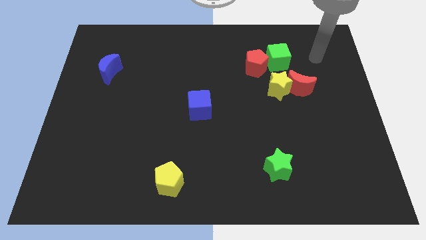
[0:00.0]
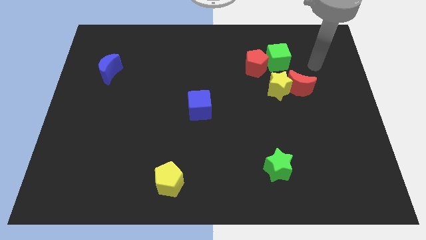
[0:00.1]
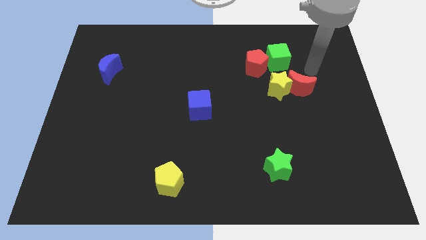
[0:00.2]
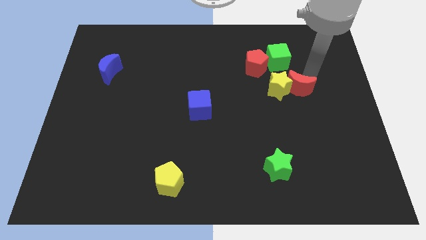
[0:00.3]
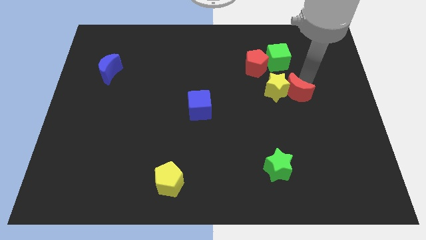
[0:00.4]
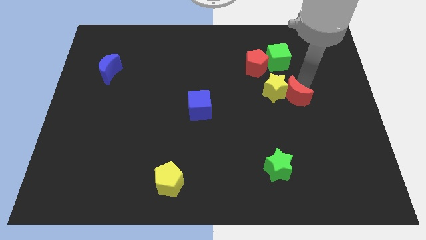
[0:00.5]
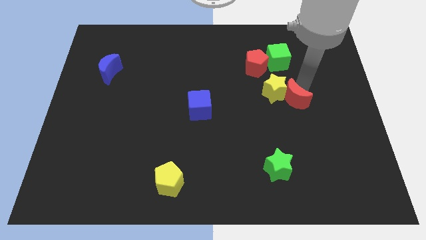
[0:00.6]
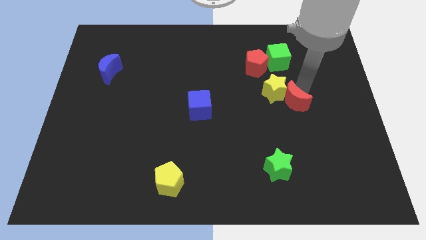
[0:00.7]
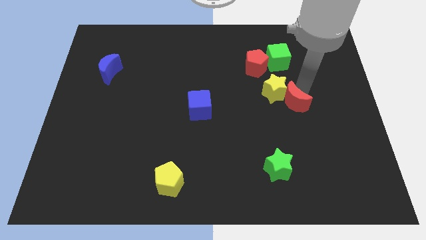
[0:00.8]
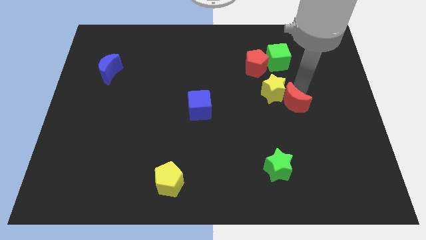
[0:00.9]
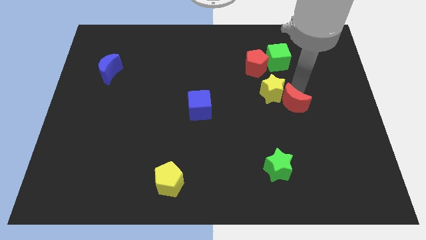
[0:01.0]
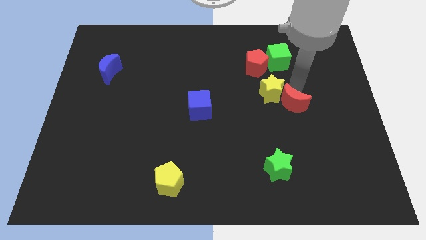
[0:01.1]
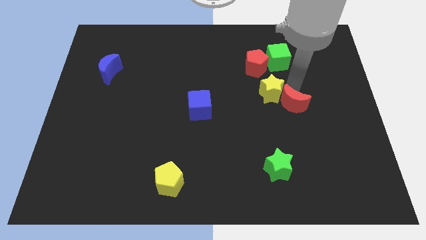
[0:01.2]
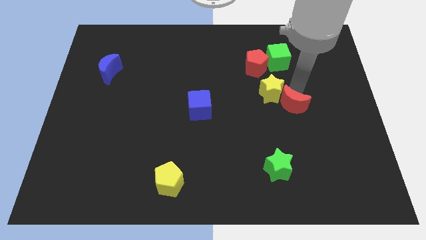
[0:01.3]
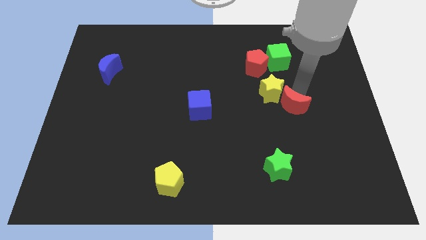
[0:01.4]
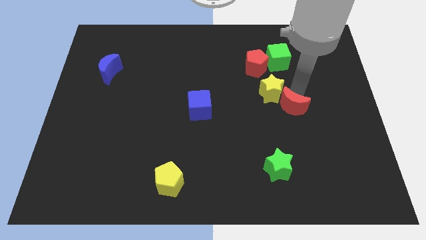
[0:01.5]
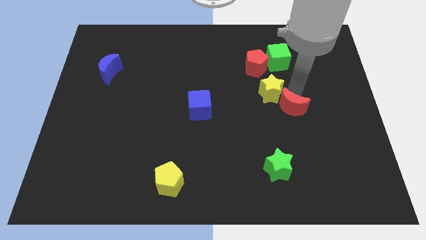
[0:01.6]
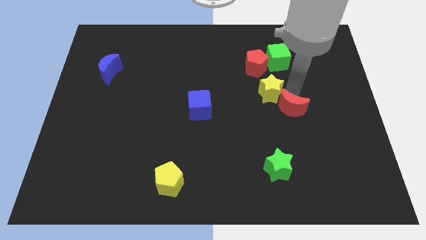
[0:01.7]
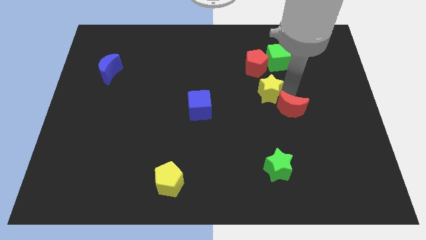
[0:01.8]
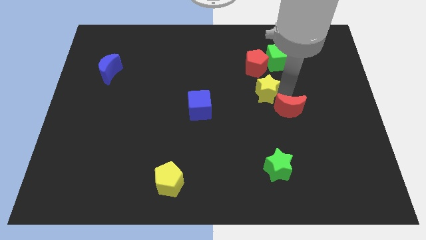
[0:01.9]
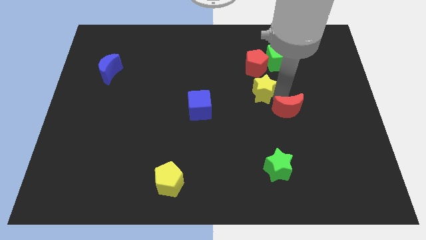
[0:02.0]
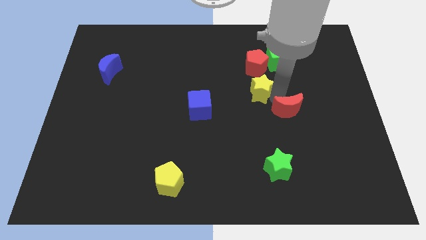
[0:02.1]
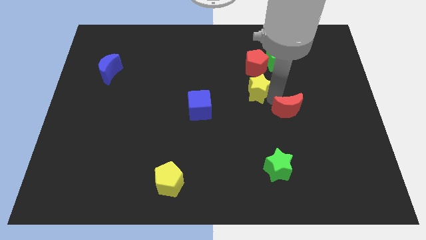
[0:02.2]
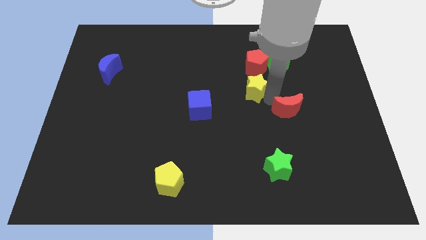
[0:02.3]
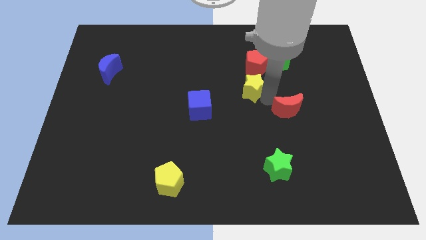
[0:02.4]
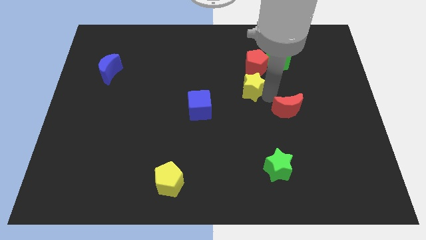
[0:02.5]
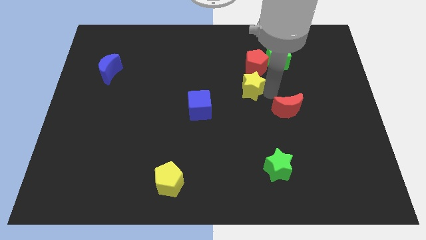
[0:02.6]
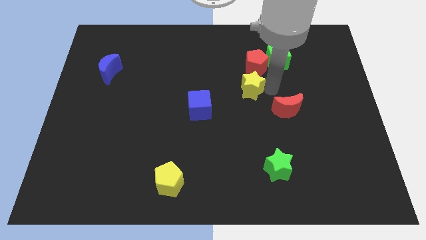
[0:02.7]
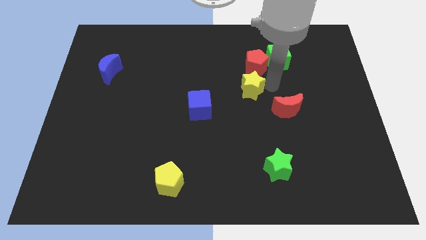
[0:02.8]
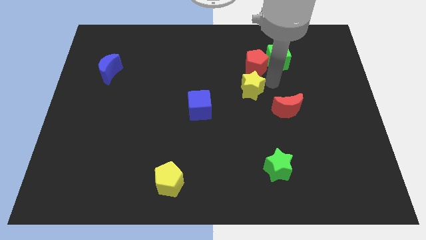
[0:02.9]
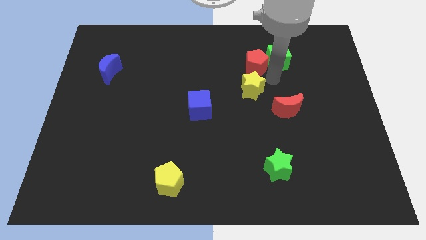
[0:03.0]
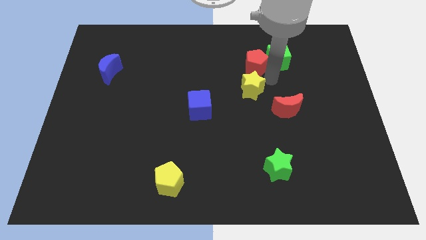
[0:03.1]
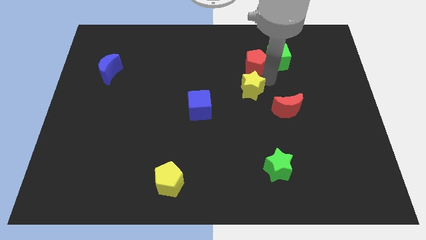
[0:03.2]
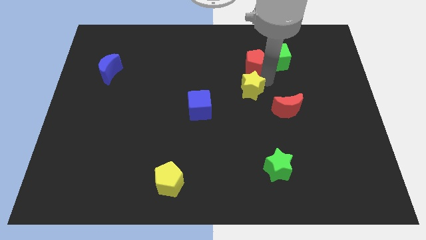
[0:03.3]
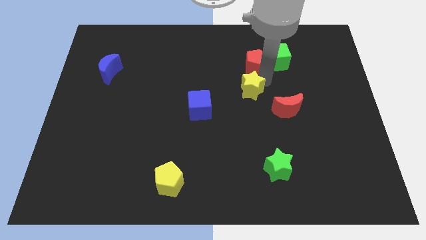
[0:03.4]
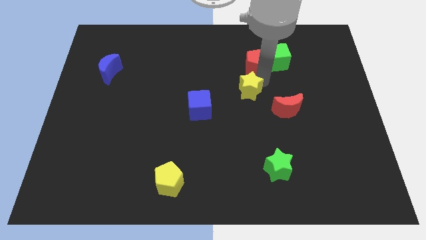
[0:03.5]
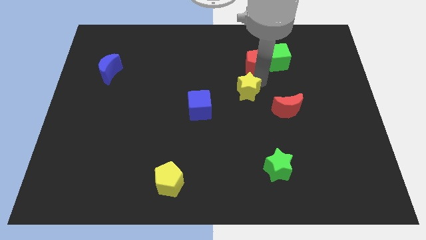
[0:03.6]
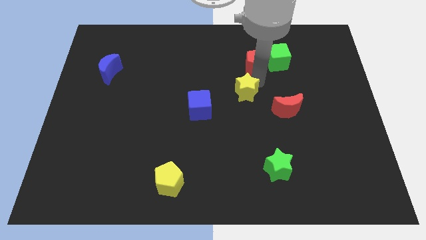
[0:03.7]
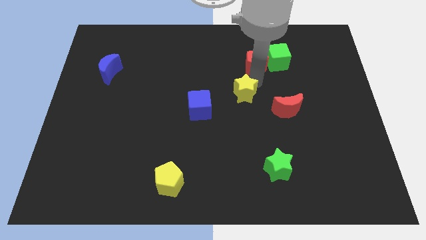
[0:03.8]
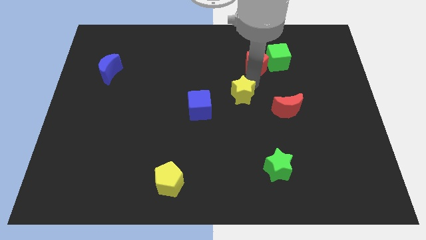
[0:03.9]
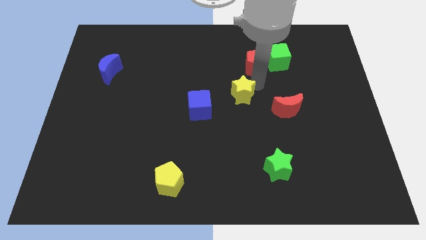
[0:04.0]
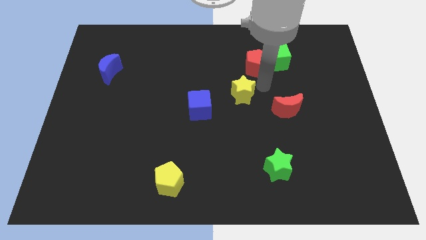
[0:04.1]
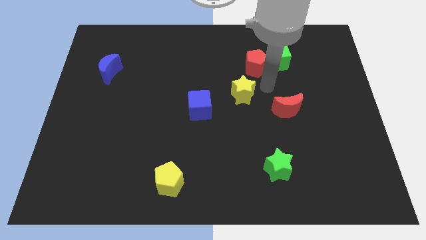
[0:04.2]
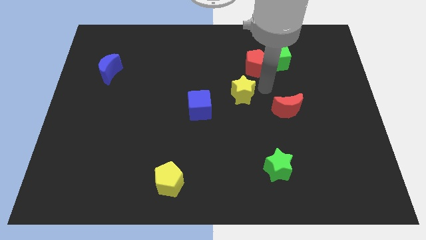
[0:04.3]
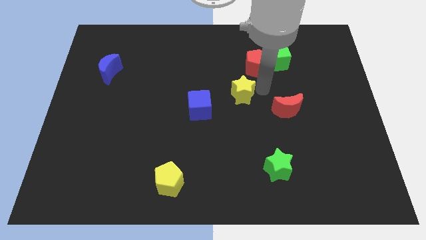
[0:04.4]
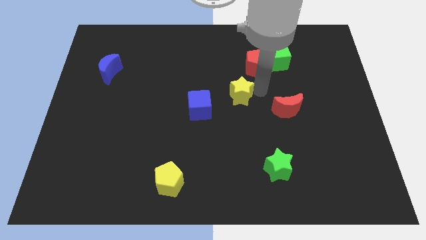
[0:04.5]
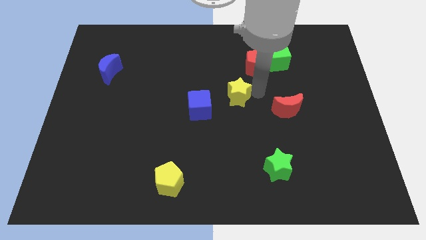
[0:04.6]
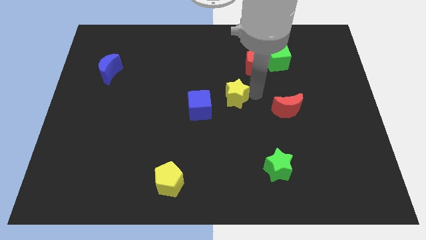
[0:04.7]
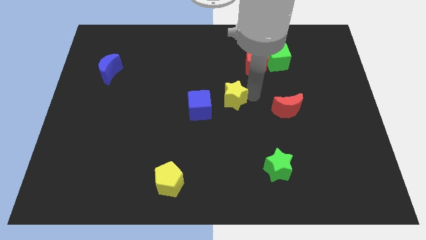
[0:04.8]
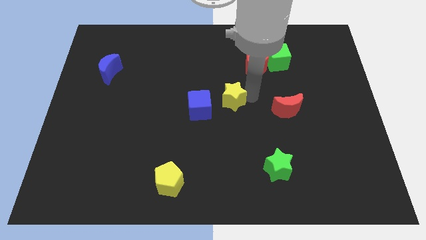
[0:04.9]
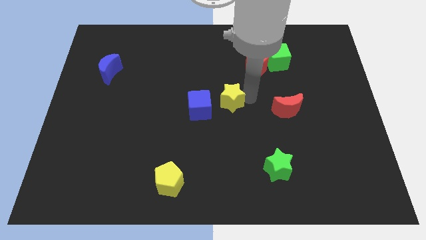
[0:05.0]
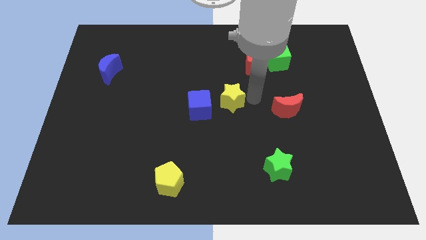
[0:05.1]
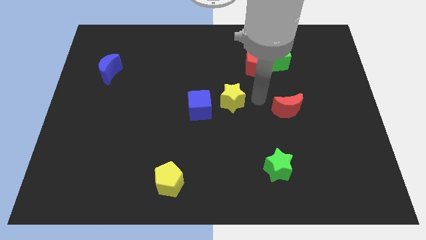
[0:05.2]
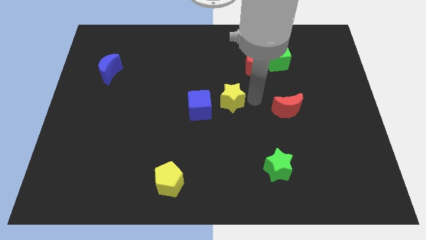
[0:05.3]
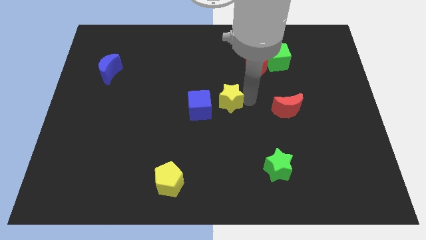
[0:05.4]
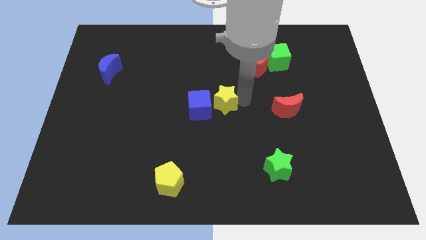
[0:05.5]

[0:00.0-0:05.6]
slide the yellow star to the blue cube

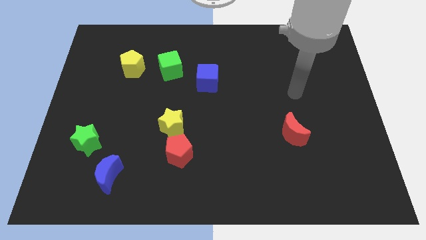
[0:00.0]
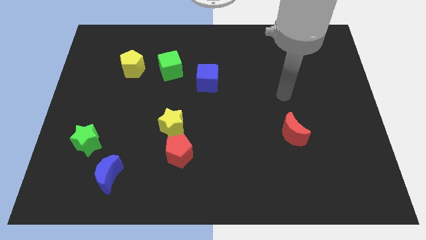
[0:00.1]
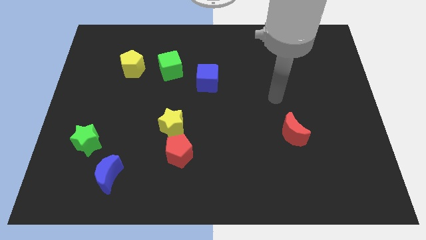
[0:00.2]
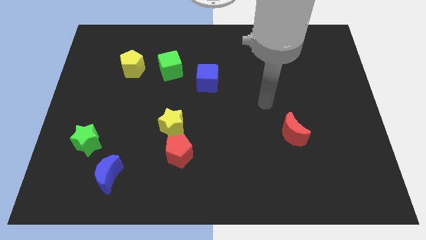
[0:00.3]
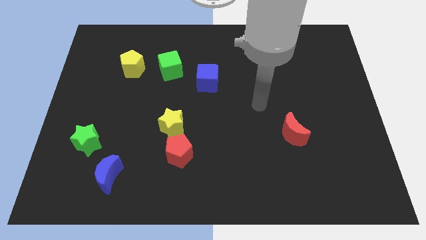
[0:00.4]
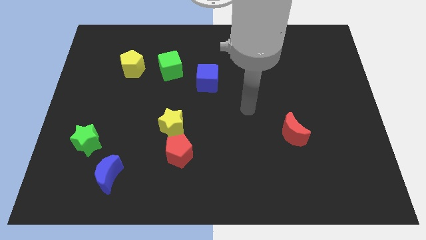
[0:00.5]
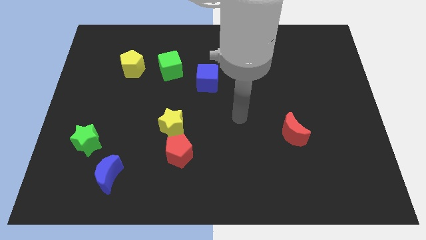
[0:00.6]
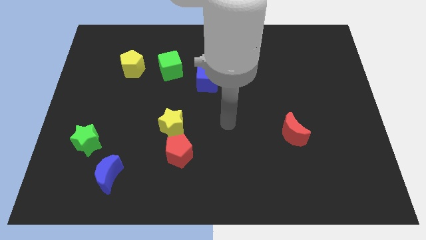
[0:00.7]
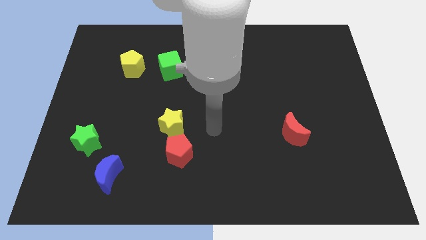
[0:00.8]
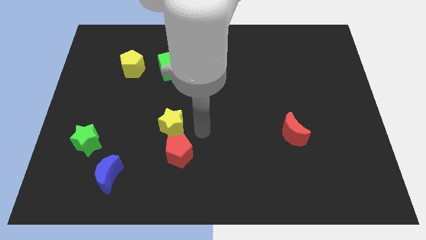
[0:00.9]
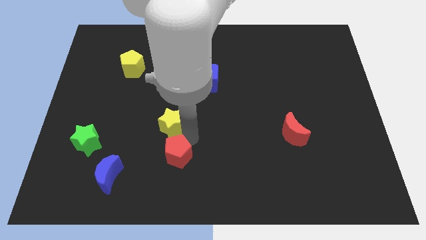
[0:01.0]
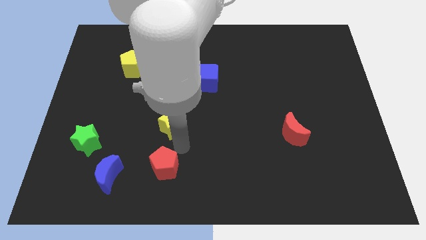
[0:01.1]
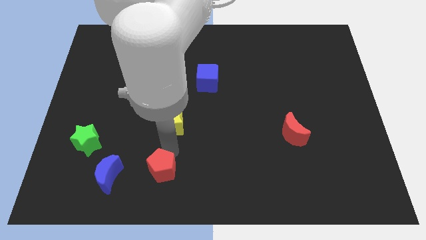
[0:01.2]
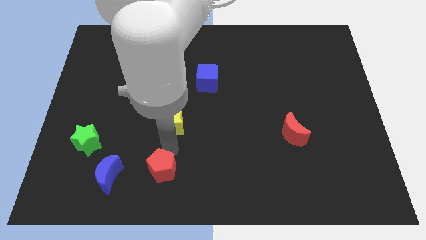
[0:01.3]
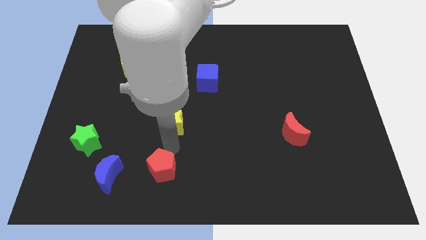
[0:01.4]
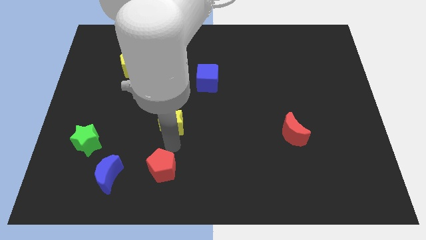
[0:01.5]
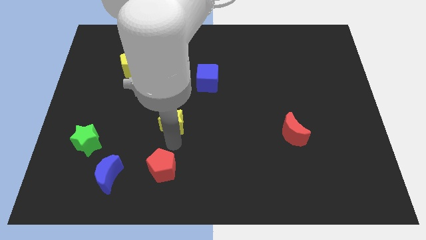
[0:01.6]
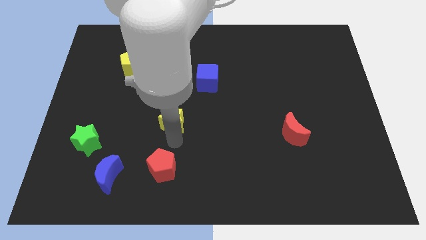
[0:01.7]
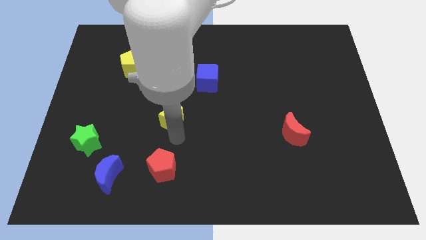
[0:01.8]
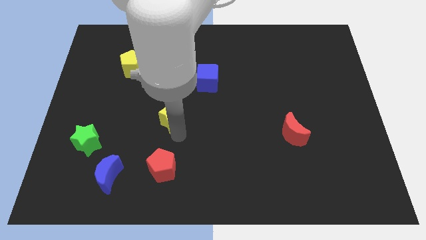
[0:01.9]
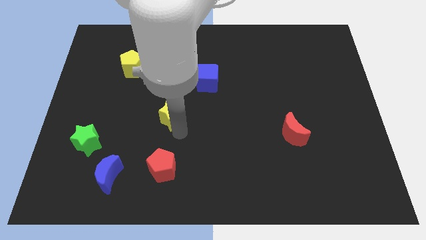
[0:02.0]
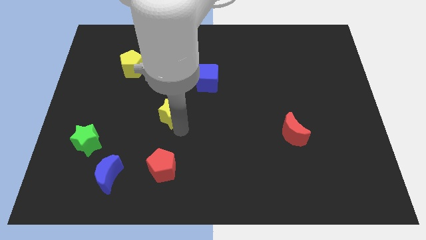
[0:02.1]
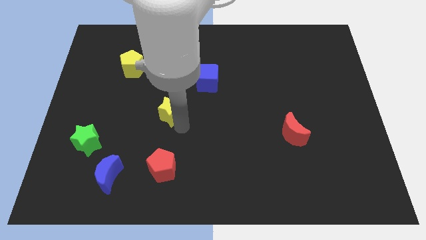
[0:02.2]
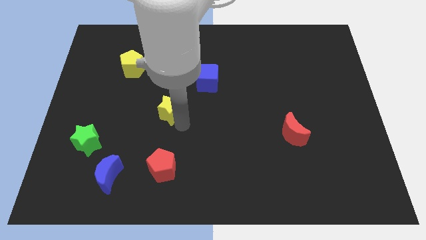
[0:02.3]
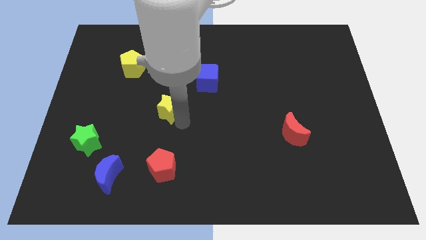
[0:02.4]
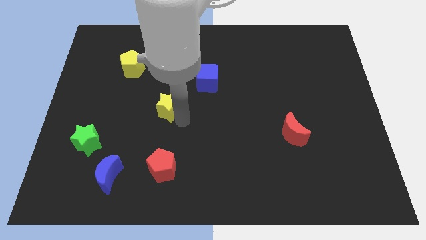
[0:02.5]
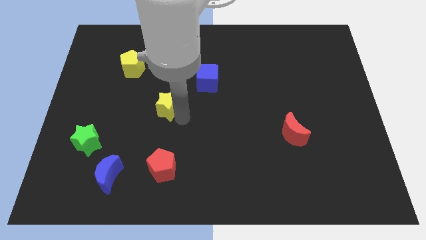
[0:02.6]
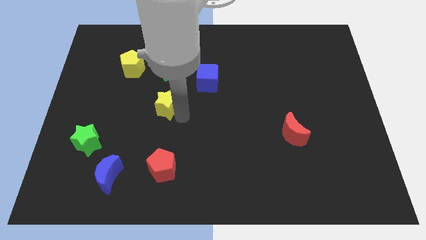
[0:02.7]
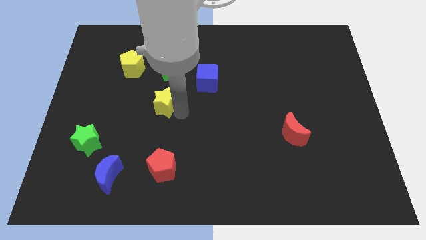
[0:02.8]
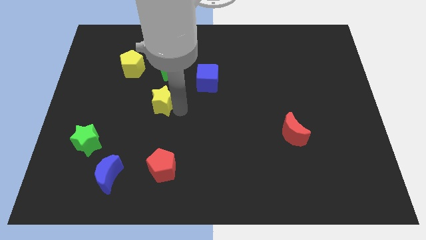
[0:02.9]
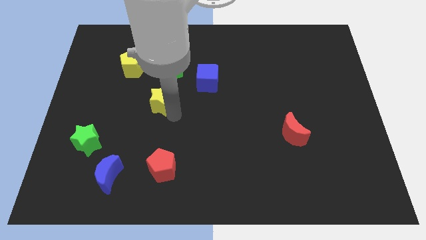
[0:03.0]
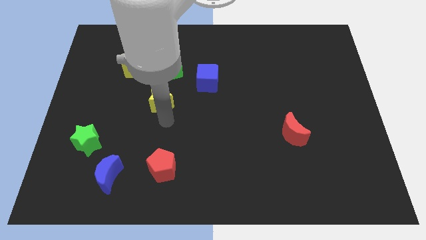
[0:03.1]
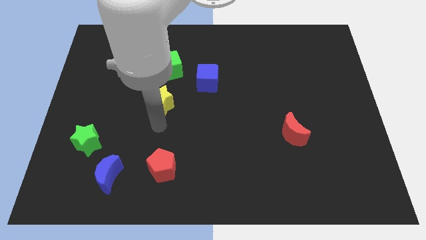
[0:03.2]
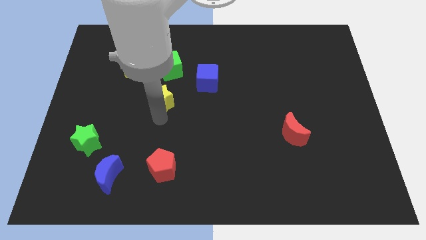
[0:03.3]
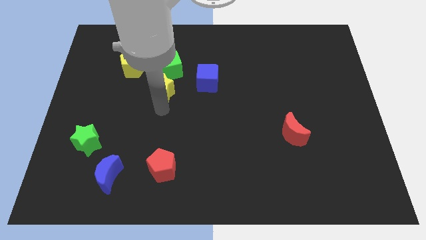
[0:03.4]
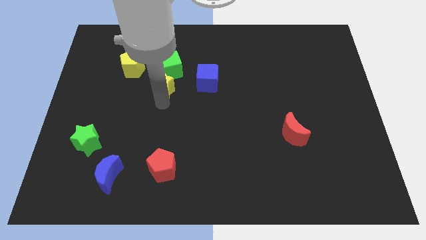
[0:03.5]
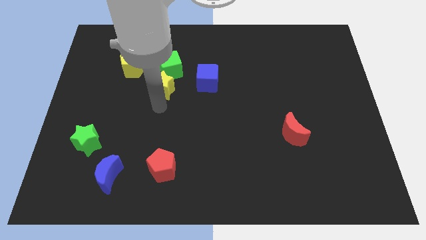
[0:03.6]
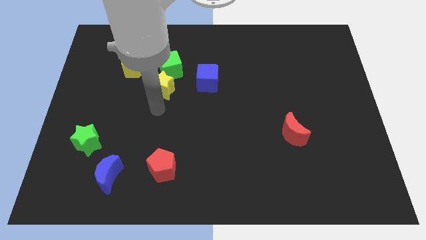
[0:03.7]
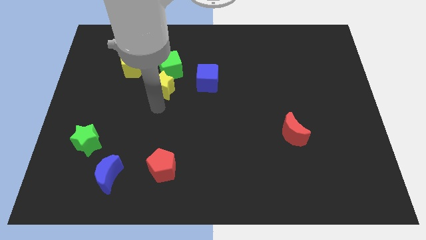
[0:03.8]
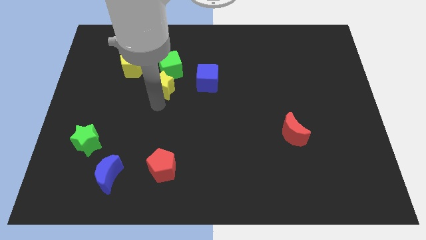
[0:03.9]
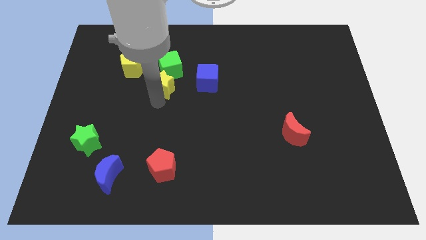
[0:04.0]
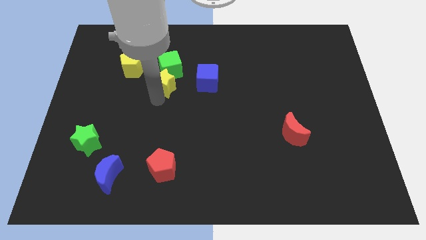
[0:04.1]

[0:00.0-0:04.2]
put the yellow star to the green cube
